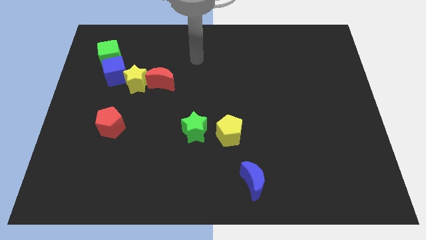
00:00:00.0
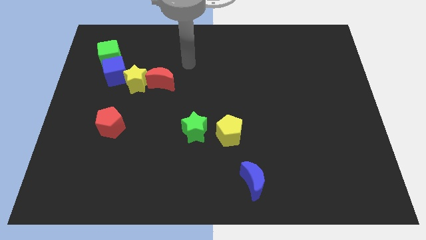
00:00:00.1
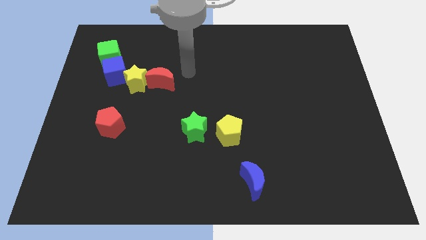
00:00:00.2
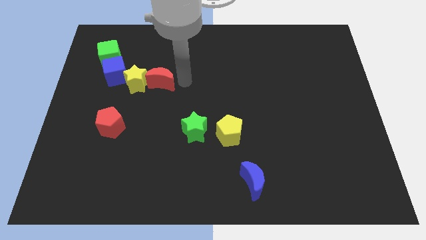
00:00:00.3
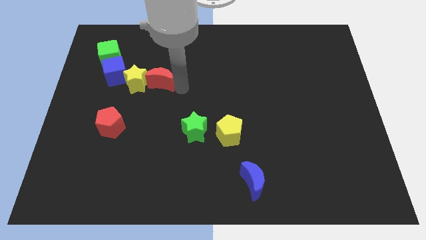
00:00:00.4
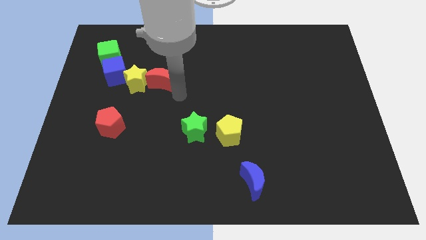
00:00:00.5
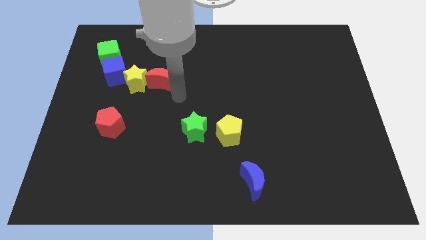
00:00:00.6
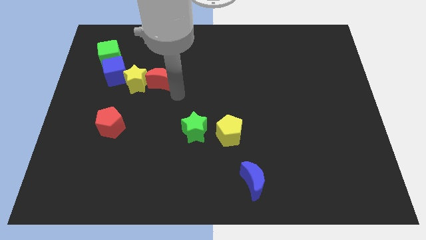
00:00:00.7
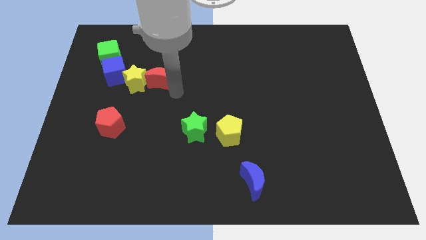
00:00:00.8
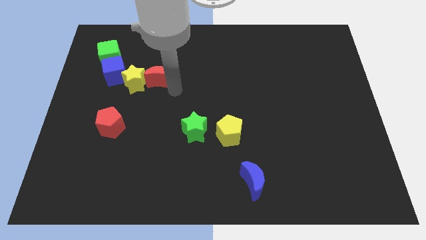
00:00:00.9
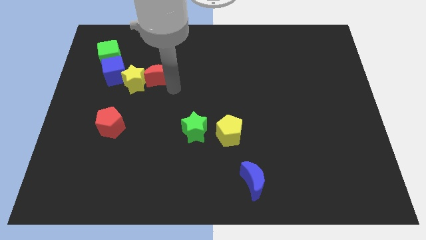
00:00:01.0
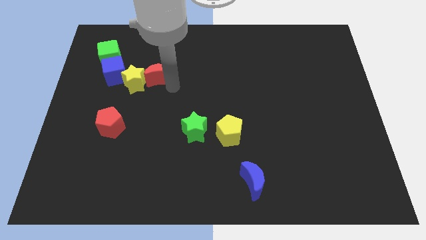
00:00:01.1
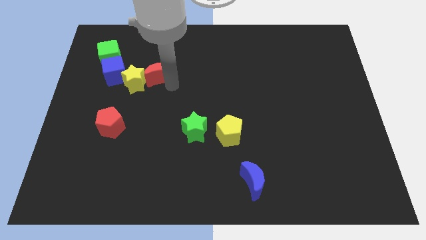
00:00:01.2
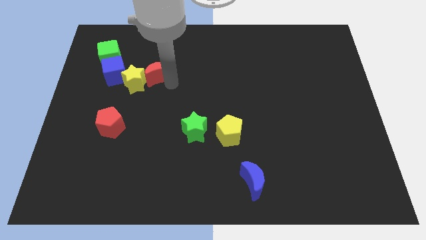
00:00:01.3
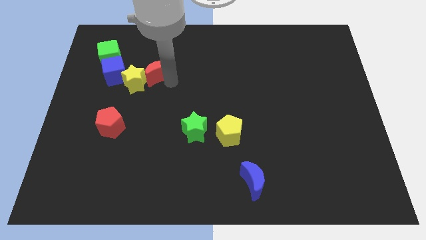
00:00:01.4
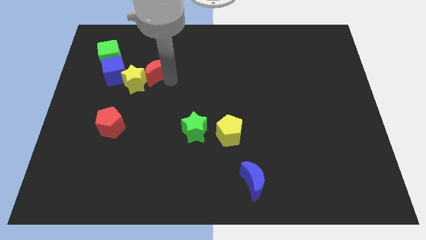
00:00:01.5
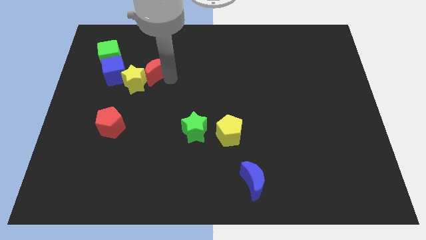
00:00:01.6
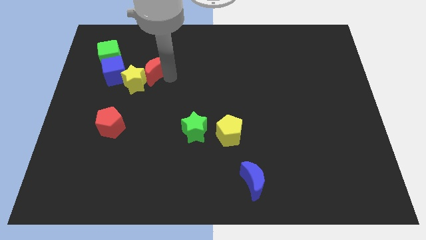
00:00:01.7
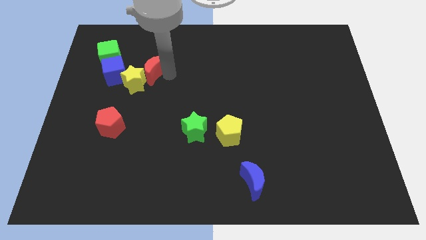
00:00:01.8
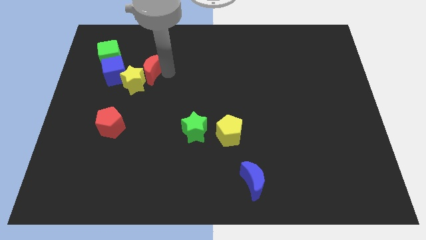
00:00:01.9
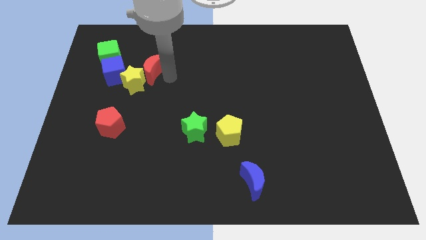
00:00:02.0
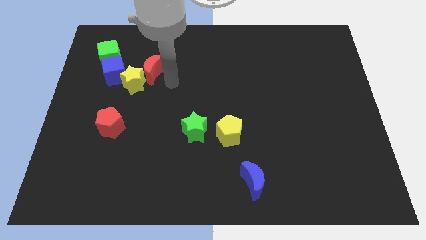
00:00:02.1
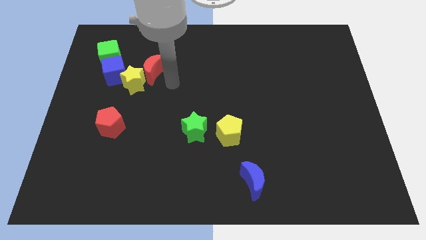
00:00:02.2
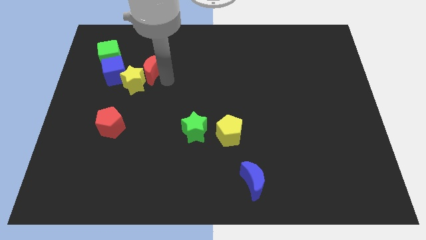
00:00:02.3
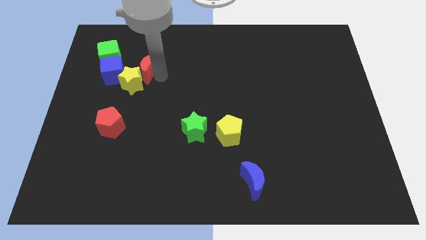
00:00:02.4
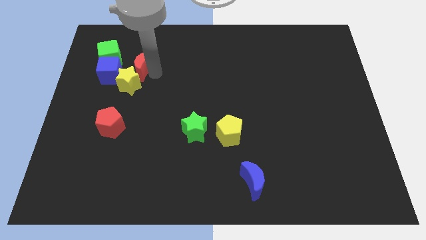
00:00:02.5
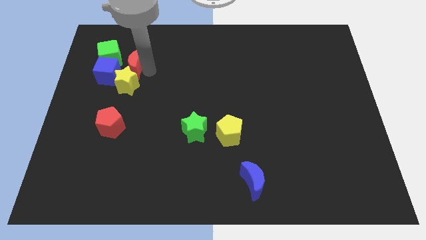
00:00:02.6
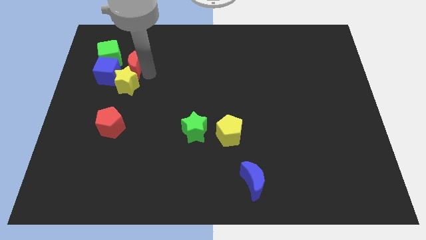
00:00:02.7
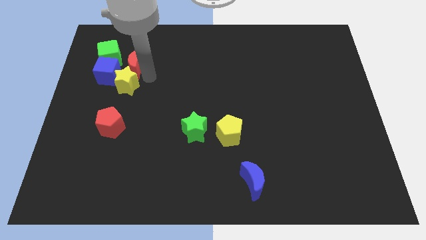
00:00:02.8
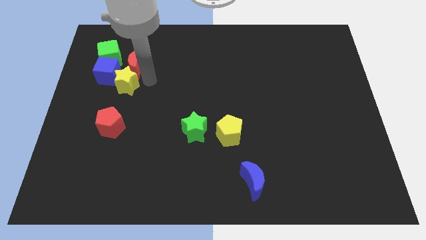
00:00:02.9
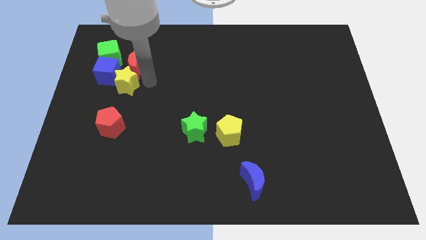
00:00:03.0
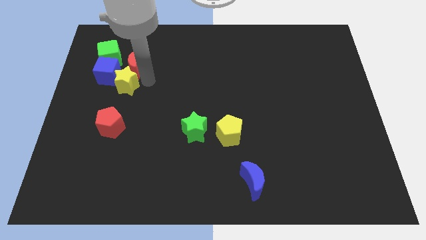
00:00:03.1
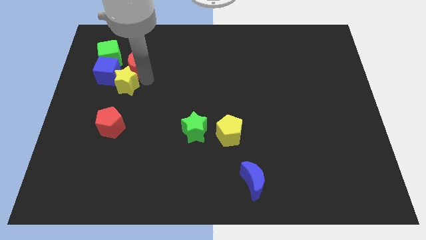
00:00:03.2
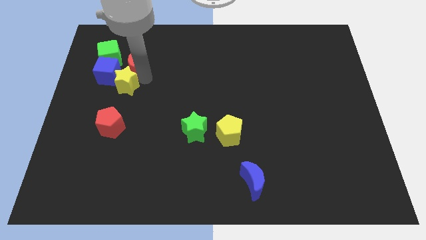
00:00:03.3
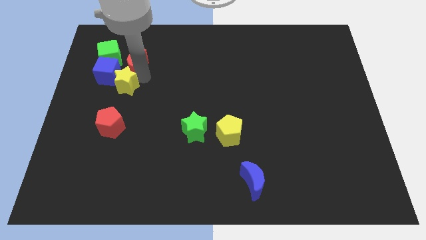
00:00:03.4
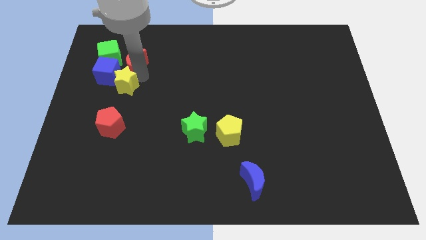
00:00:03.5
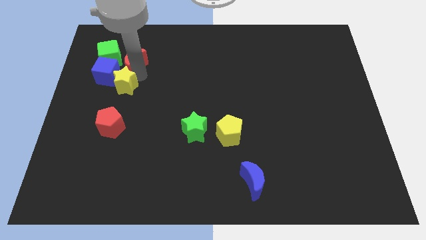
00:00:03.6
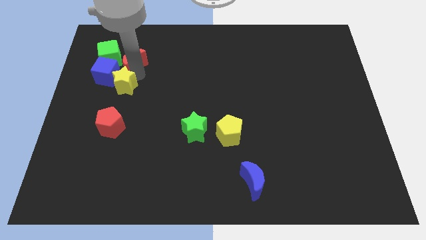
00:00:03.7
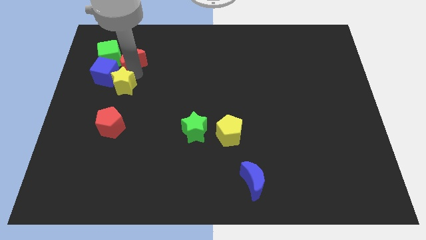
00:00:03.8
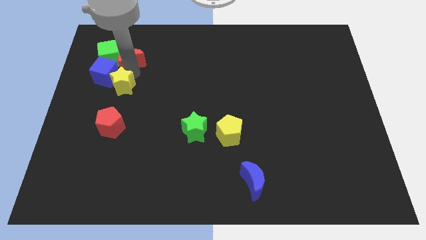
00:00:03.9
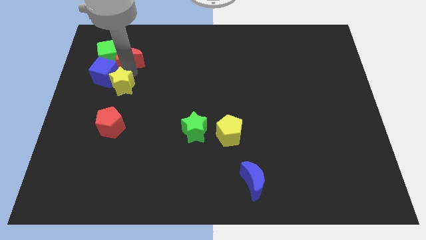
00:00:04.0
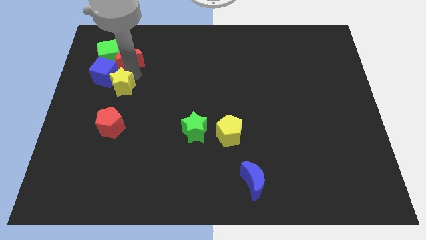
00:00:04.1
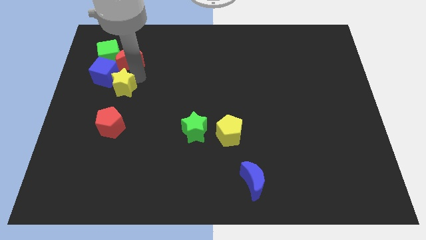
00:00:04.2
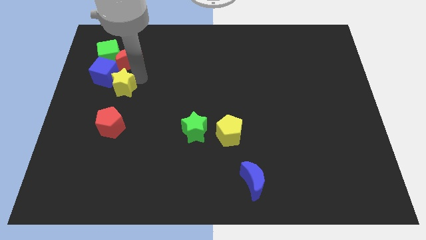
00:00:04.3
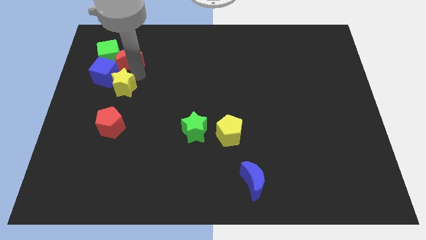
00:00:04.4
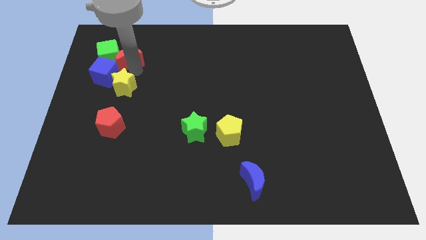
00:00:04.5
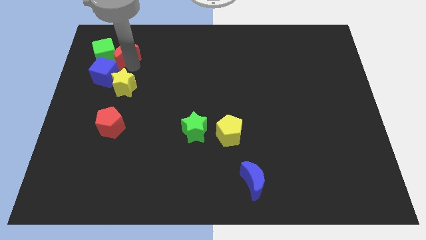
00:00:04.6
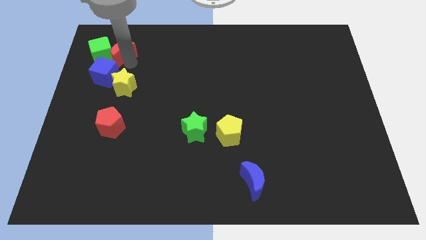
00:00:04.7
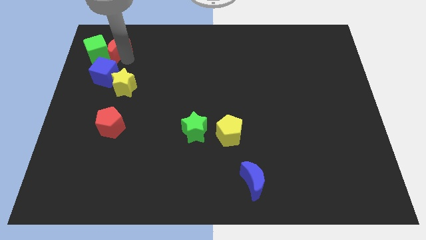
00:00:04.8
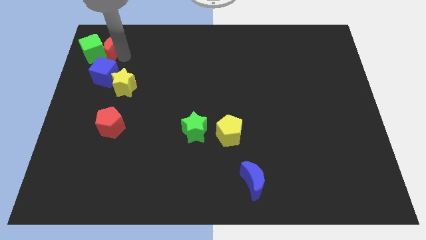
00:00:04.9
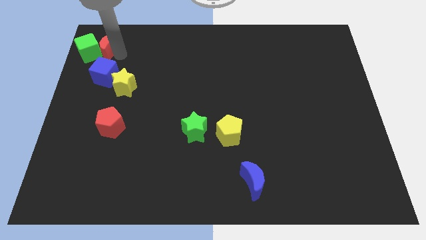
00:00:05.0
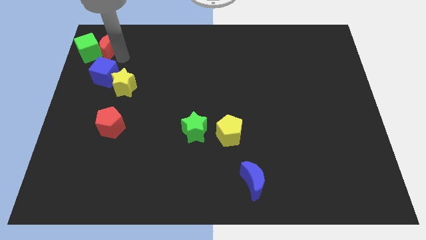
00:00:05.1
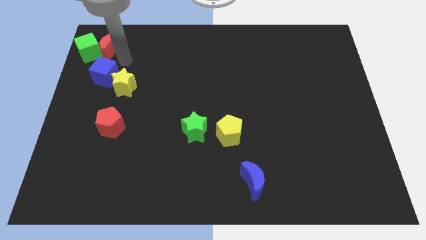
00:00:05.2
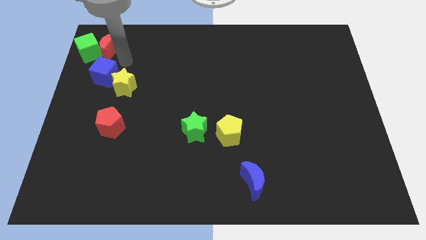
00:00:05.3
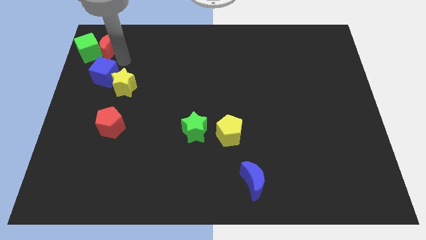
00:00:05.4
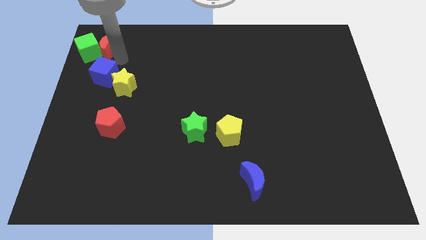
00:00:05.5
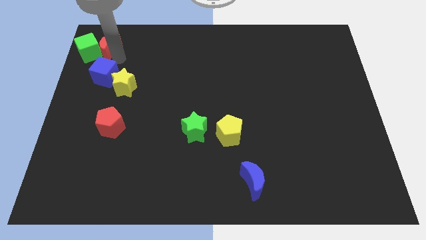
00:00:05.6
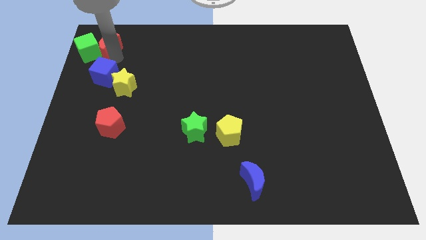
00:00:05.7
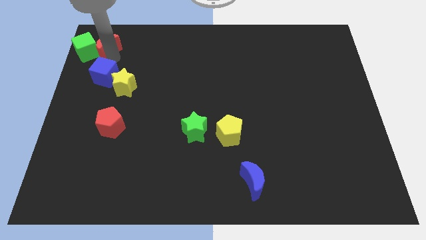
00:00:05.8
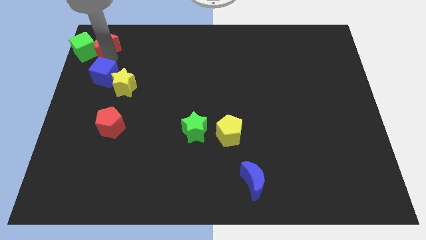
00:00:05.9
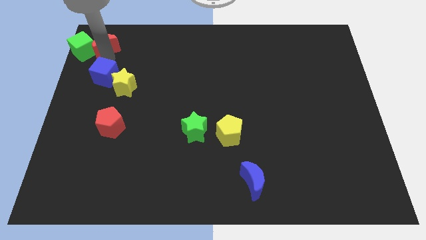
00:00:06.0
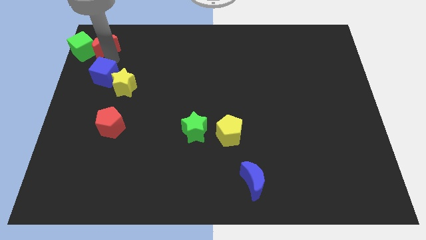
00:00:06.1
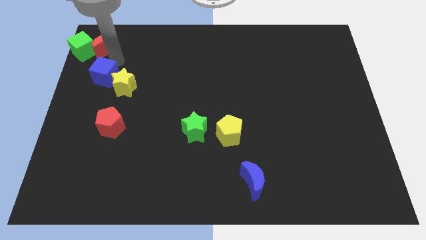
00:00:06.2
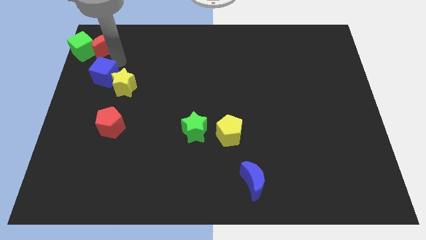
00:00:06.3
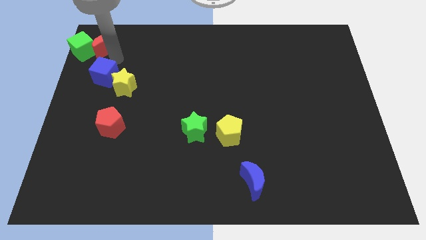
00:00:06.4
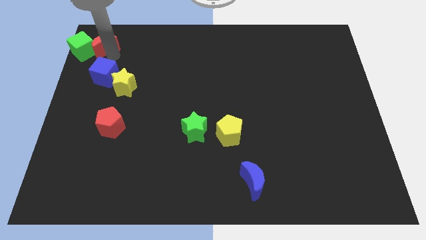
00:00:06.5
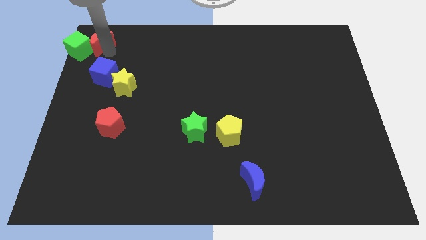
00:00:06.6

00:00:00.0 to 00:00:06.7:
slide the red moon to the top left corner
